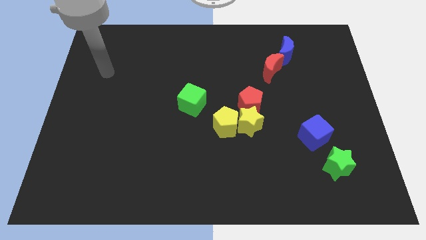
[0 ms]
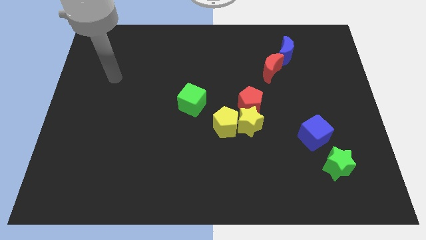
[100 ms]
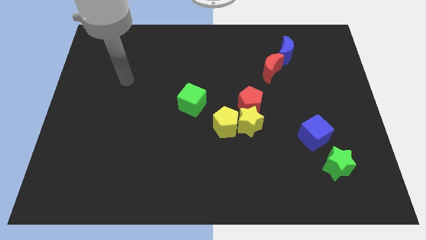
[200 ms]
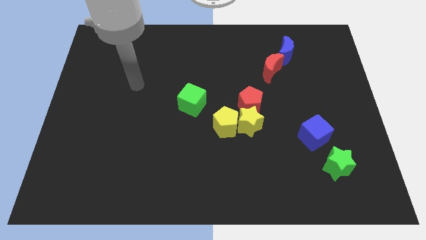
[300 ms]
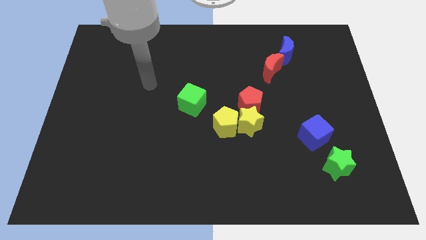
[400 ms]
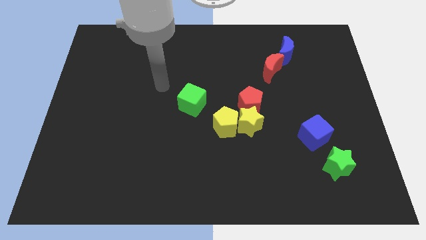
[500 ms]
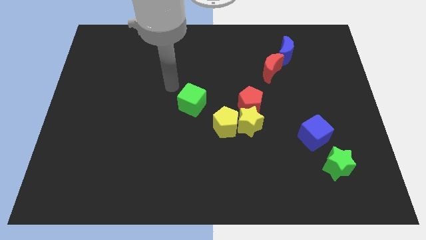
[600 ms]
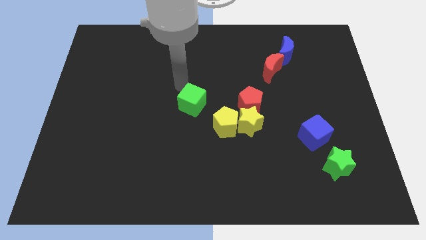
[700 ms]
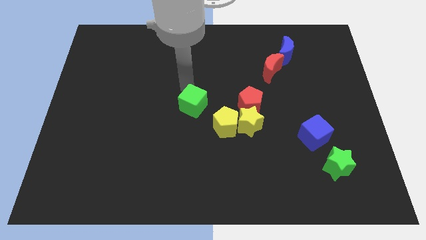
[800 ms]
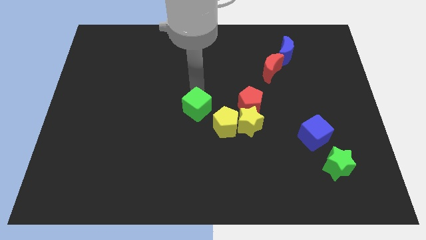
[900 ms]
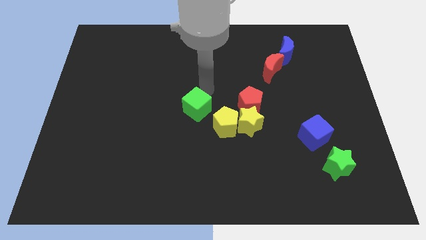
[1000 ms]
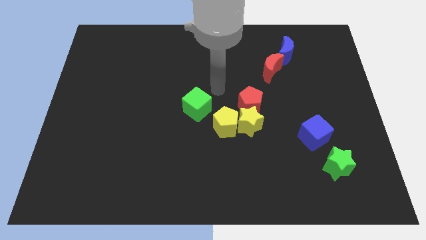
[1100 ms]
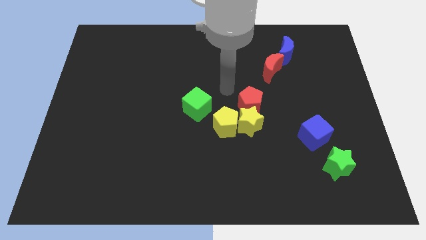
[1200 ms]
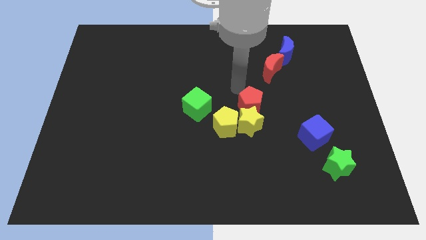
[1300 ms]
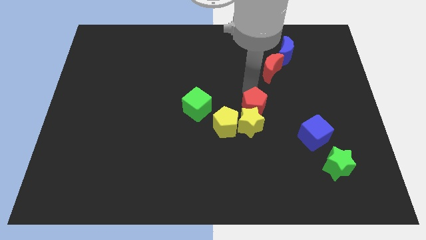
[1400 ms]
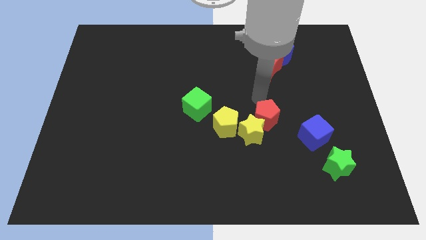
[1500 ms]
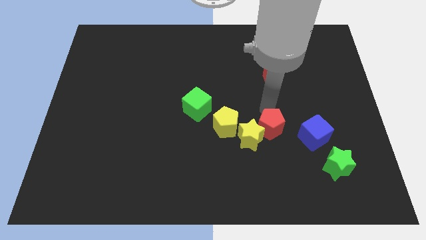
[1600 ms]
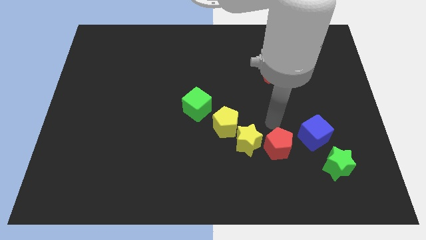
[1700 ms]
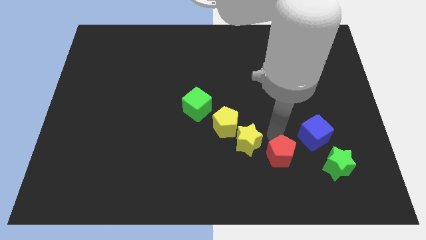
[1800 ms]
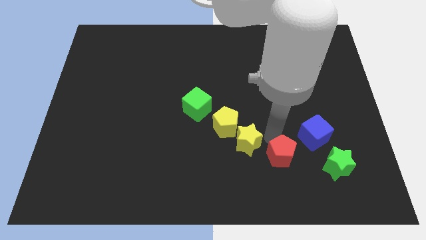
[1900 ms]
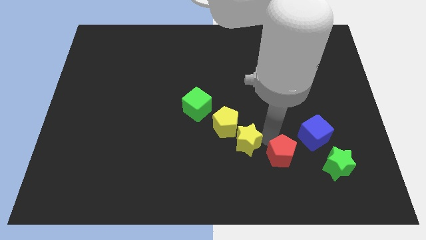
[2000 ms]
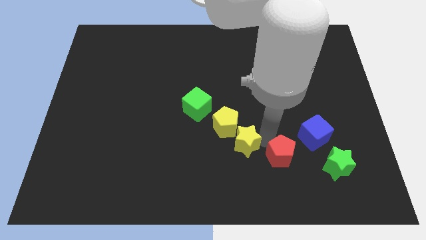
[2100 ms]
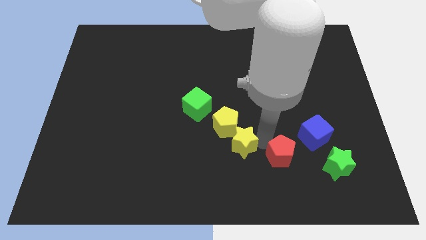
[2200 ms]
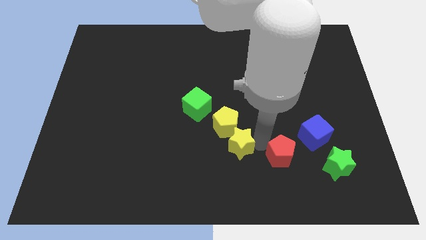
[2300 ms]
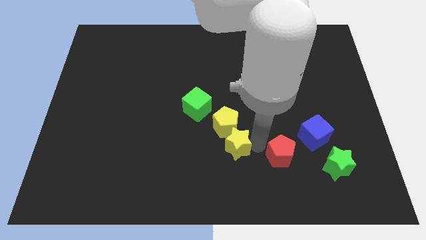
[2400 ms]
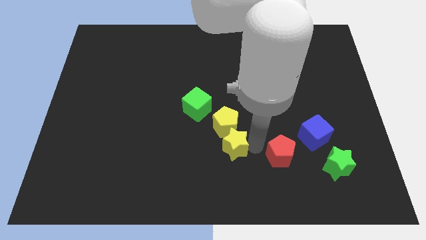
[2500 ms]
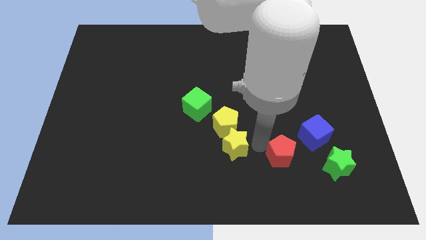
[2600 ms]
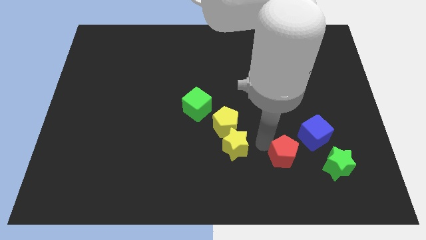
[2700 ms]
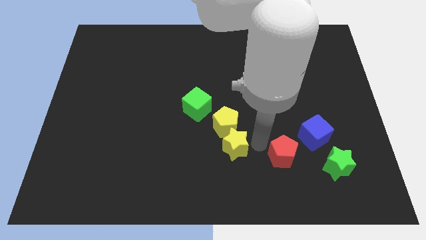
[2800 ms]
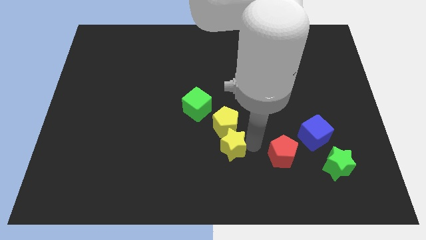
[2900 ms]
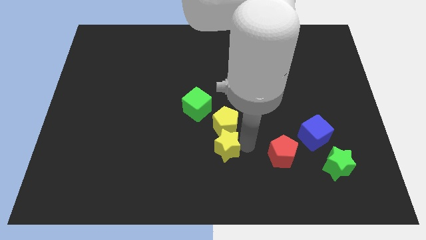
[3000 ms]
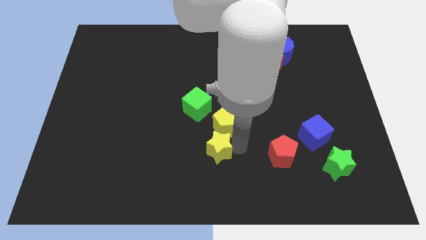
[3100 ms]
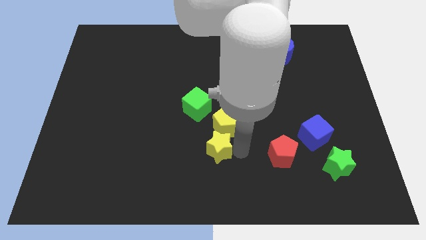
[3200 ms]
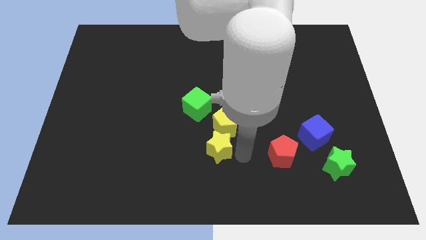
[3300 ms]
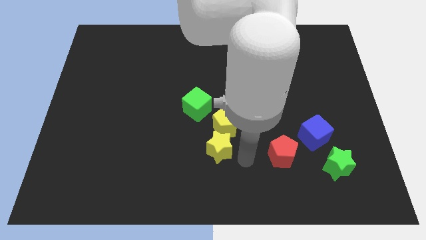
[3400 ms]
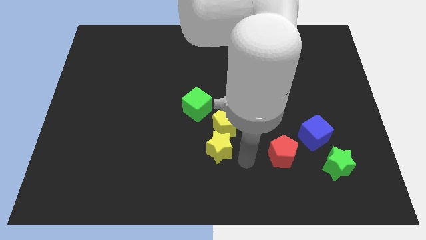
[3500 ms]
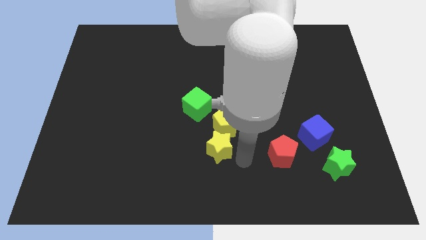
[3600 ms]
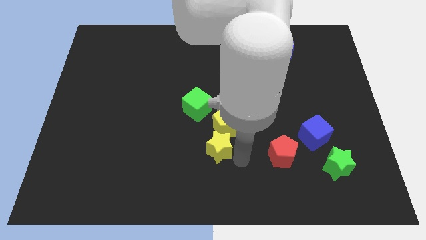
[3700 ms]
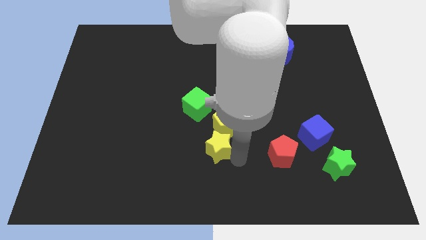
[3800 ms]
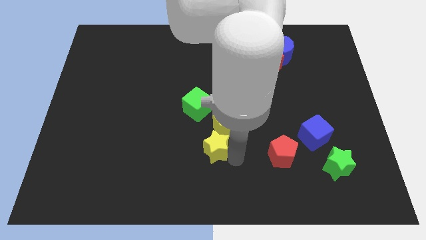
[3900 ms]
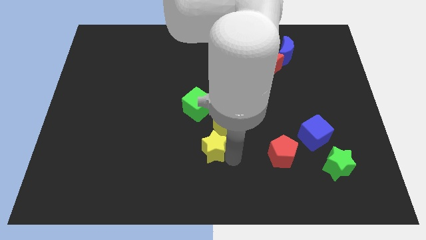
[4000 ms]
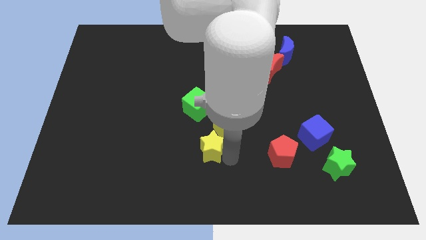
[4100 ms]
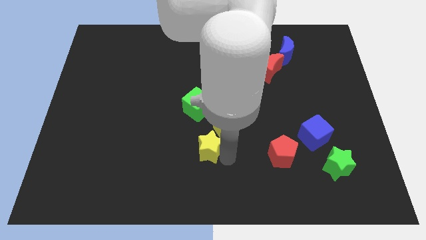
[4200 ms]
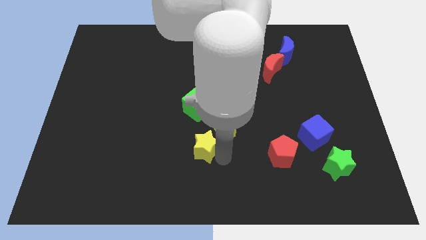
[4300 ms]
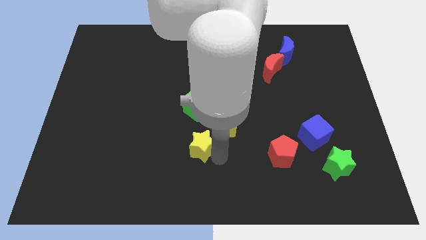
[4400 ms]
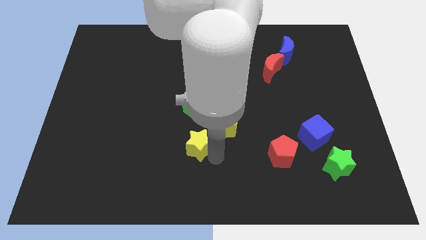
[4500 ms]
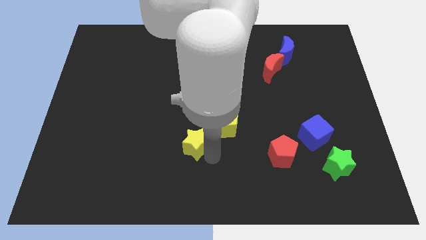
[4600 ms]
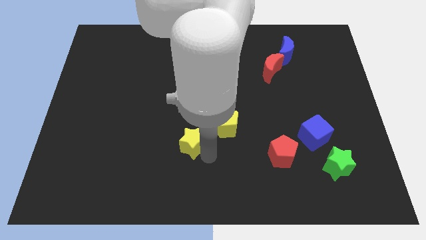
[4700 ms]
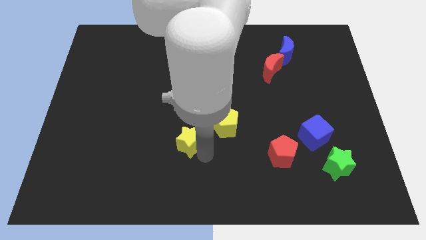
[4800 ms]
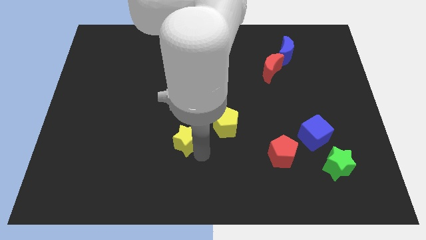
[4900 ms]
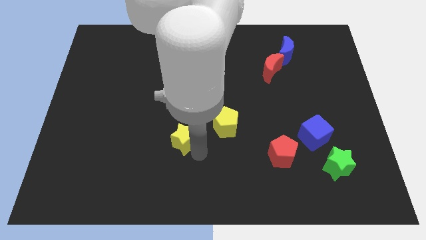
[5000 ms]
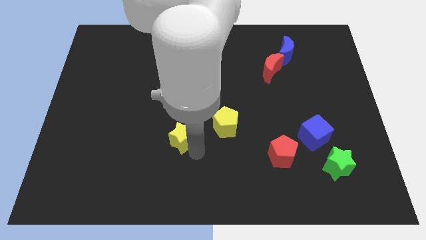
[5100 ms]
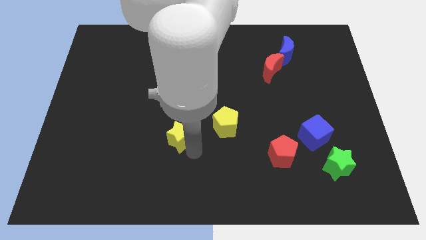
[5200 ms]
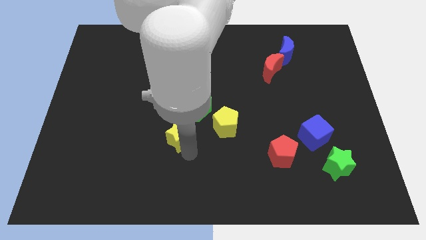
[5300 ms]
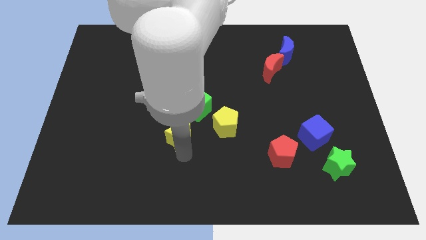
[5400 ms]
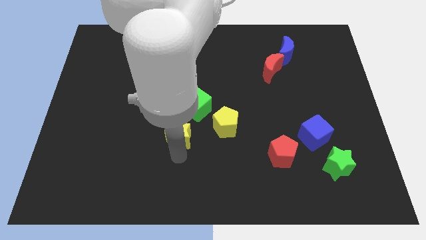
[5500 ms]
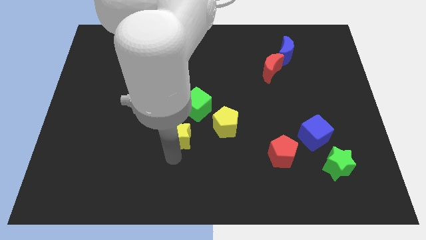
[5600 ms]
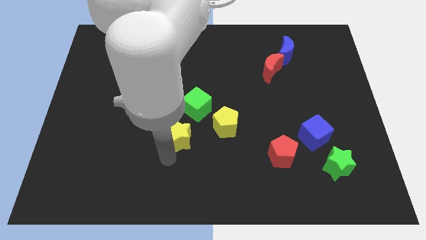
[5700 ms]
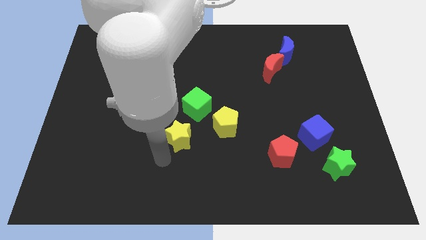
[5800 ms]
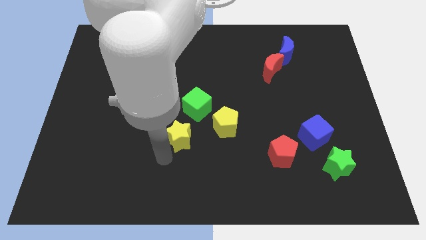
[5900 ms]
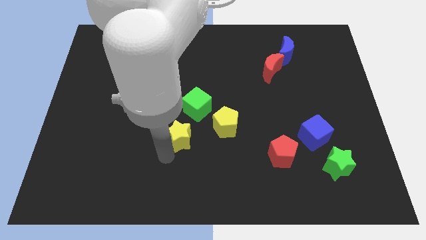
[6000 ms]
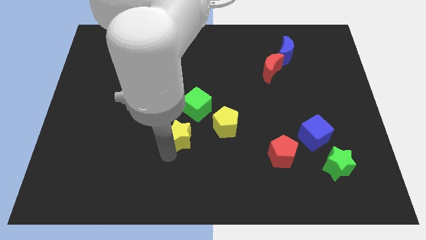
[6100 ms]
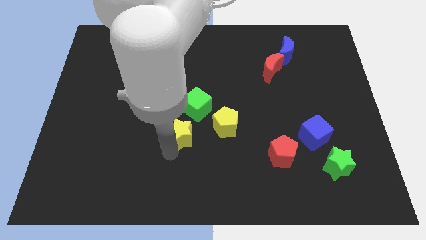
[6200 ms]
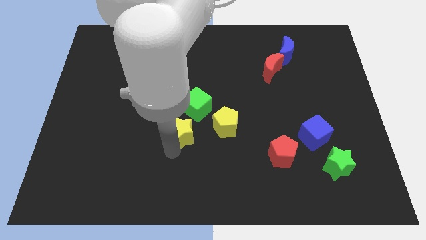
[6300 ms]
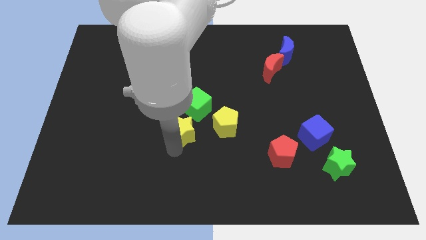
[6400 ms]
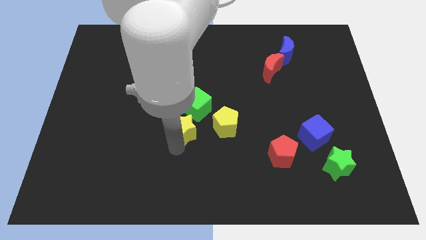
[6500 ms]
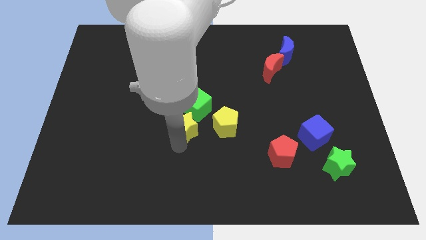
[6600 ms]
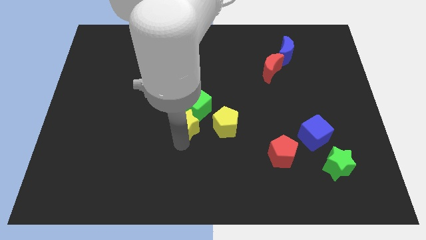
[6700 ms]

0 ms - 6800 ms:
move the yellow star next to the green cube

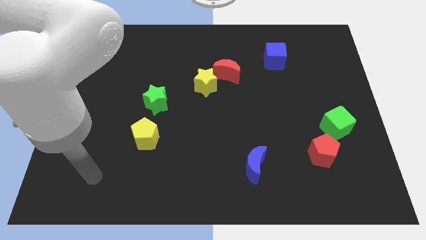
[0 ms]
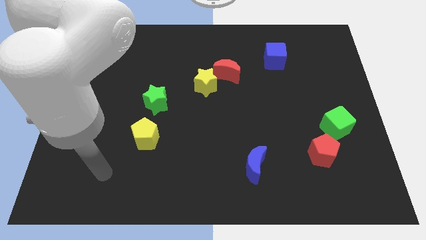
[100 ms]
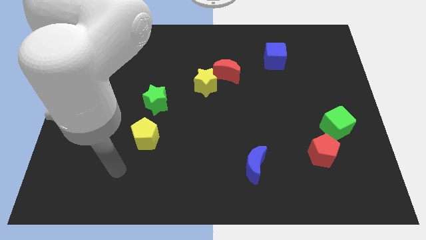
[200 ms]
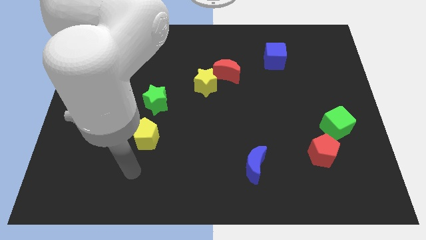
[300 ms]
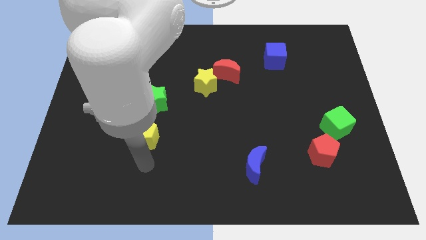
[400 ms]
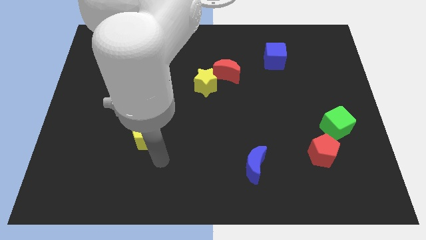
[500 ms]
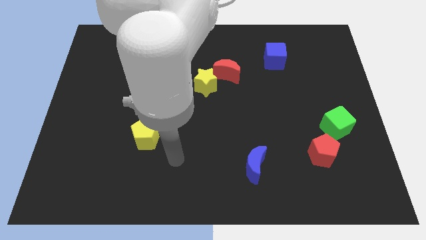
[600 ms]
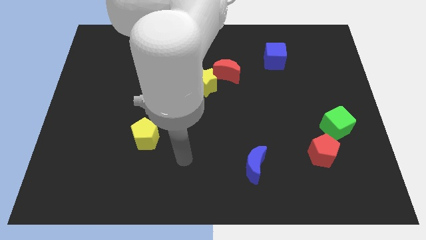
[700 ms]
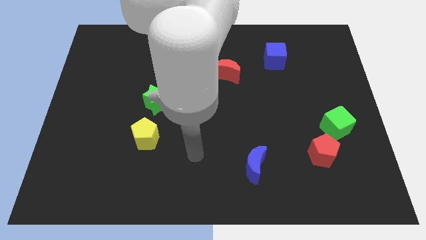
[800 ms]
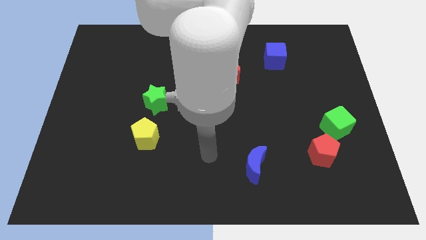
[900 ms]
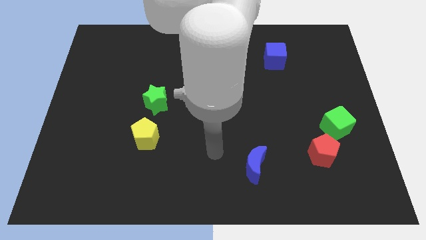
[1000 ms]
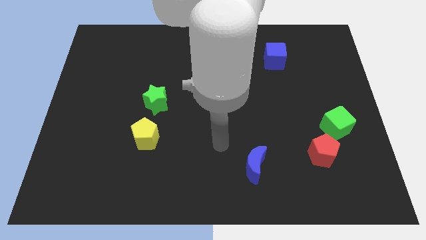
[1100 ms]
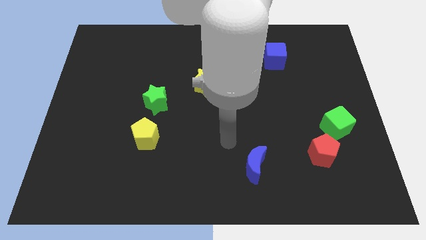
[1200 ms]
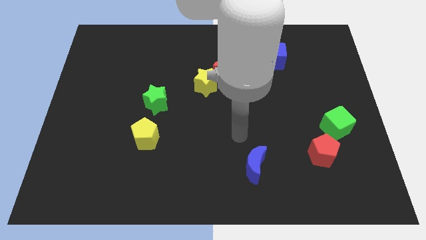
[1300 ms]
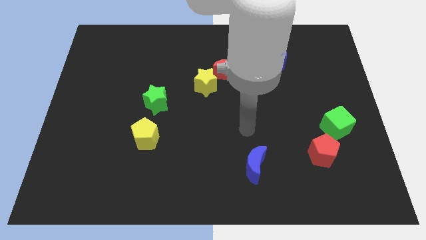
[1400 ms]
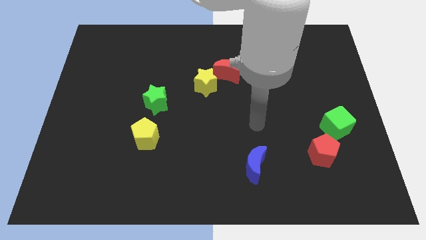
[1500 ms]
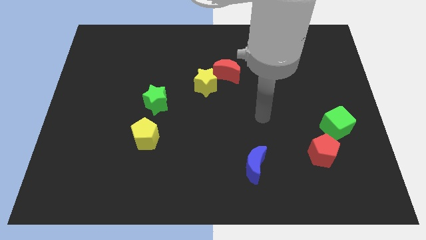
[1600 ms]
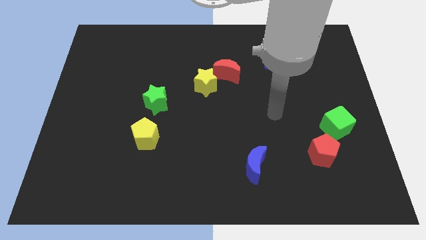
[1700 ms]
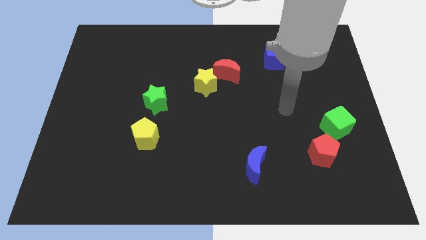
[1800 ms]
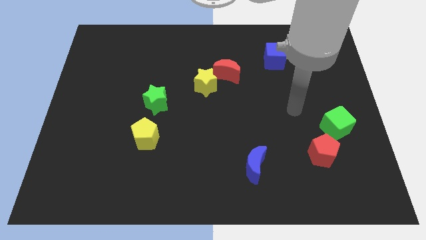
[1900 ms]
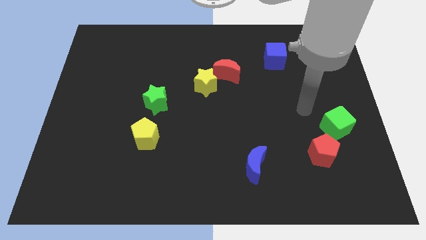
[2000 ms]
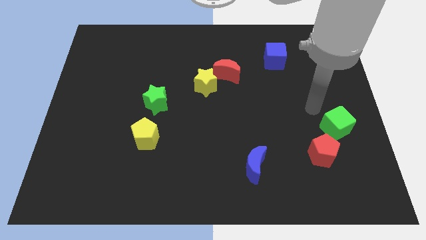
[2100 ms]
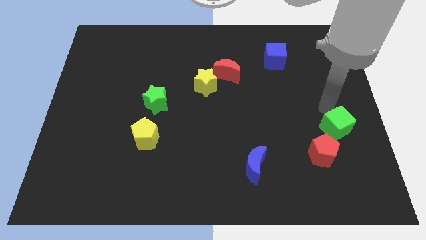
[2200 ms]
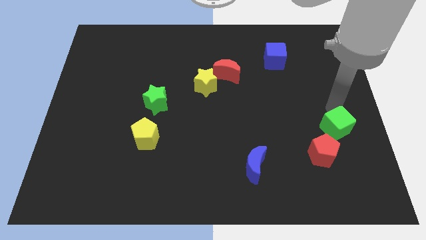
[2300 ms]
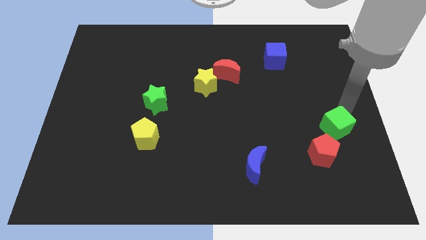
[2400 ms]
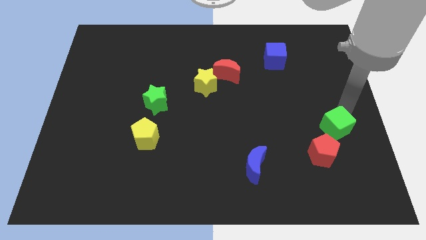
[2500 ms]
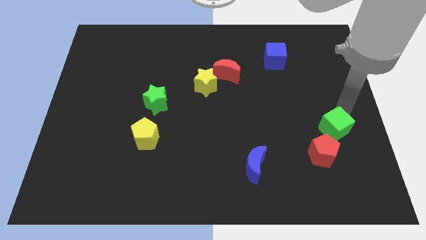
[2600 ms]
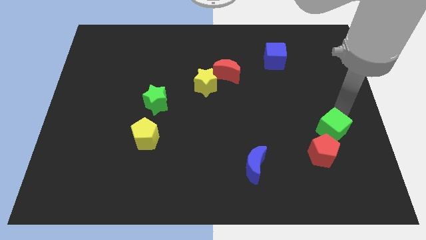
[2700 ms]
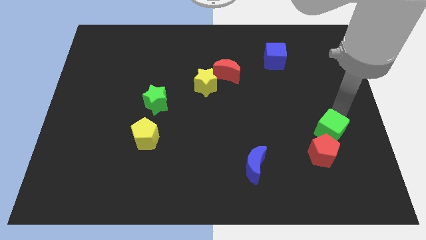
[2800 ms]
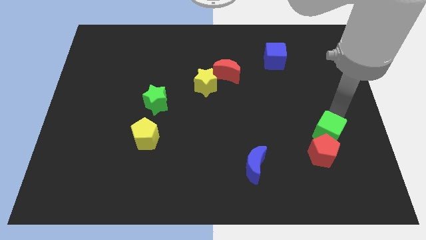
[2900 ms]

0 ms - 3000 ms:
push the green cube to the red pentagon
